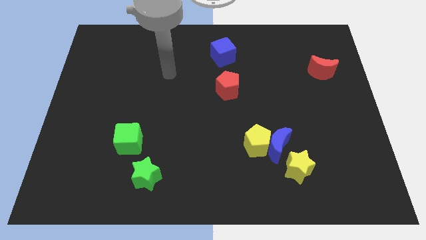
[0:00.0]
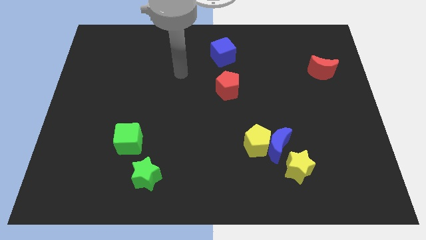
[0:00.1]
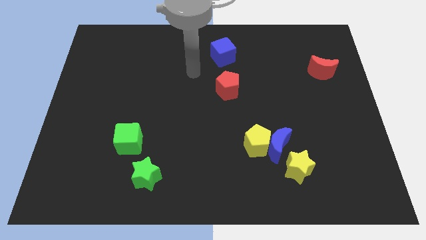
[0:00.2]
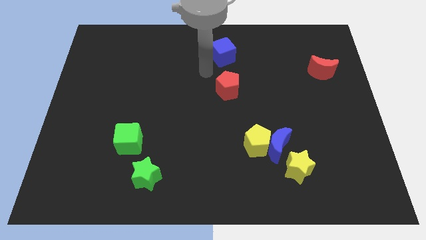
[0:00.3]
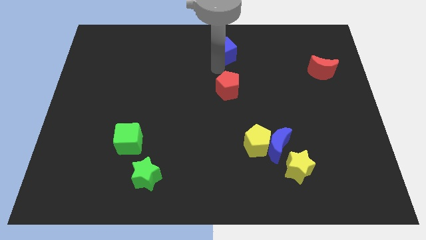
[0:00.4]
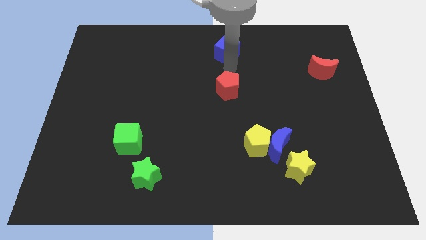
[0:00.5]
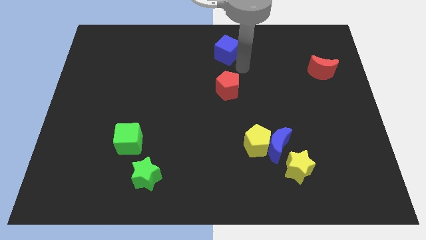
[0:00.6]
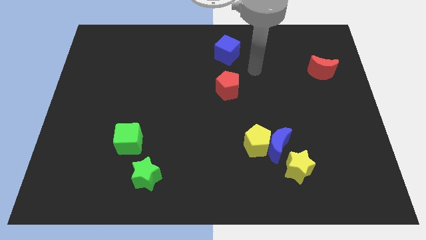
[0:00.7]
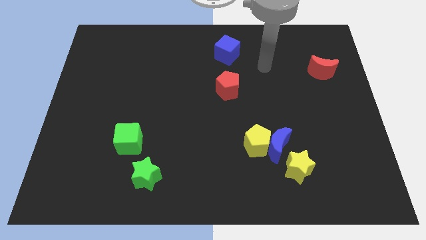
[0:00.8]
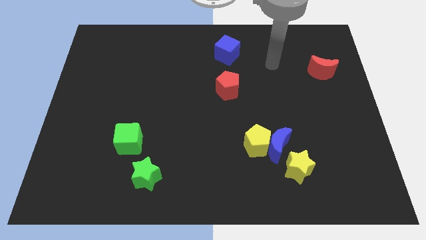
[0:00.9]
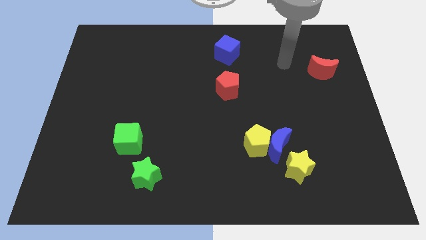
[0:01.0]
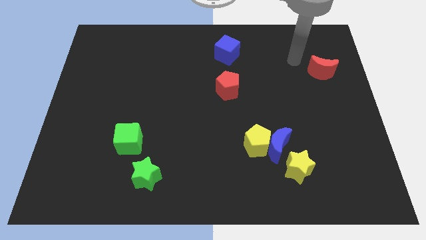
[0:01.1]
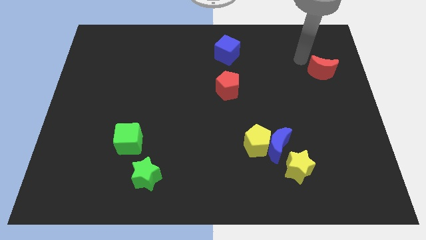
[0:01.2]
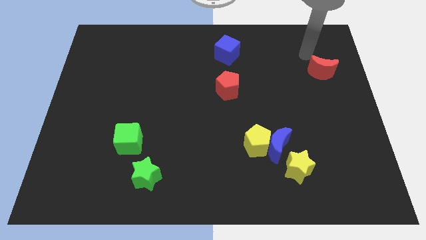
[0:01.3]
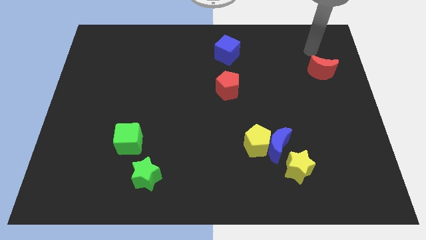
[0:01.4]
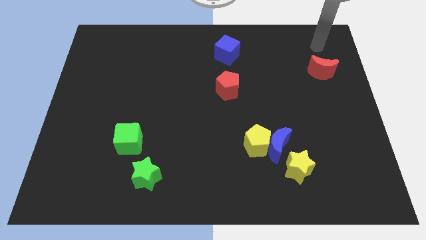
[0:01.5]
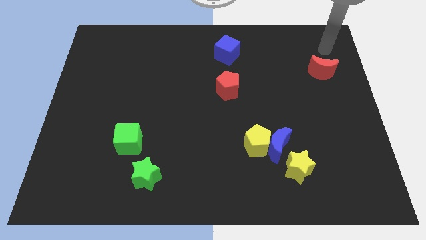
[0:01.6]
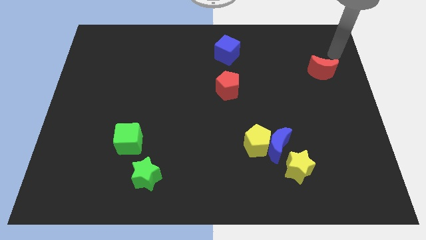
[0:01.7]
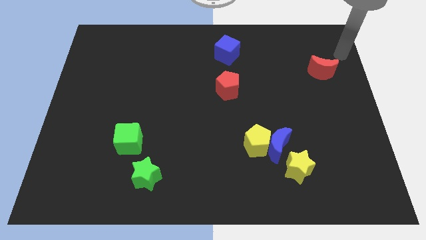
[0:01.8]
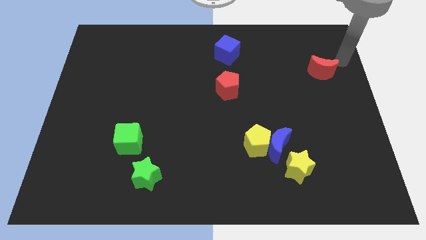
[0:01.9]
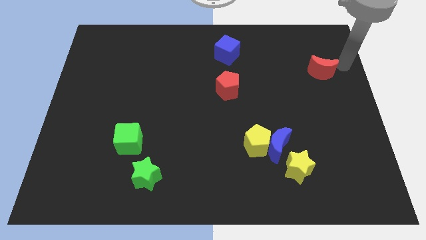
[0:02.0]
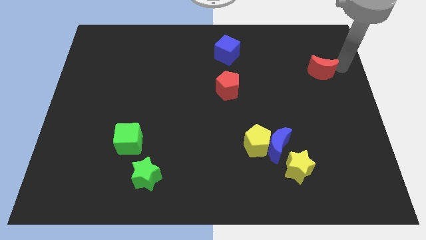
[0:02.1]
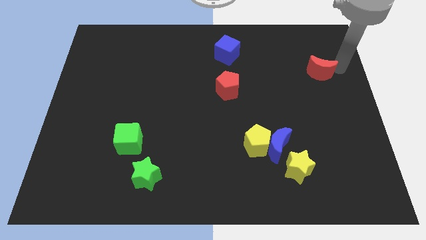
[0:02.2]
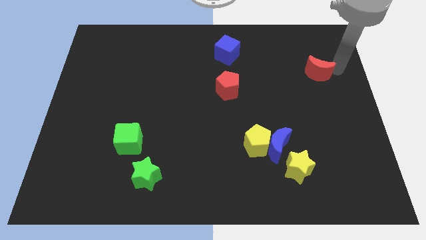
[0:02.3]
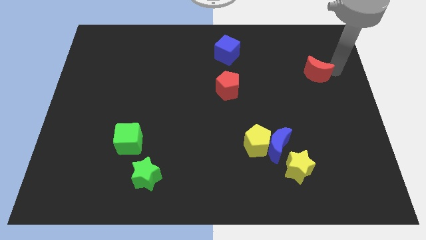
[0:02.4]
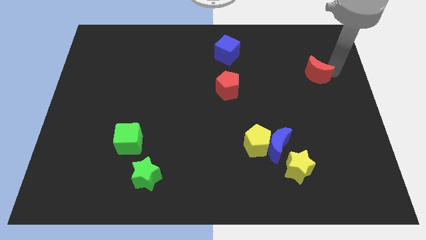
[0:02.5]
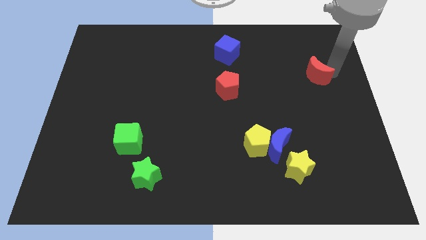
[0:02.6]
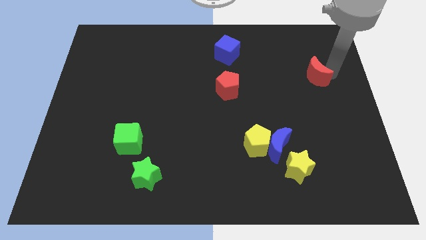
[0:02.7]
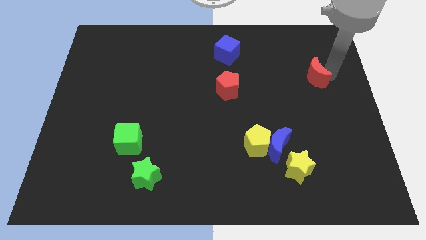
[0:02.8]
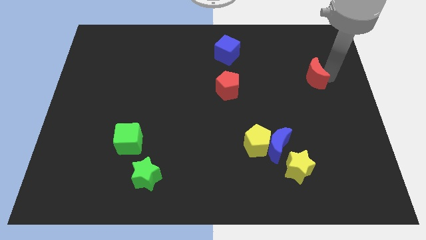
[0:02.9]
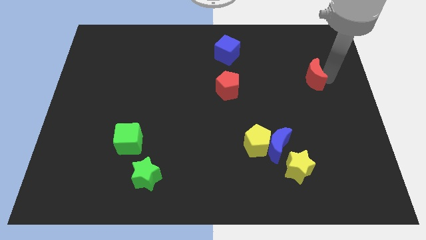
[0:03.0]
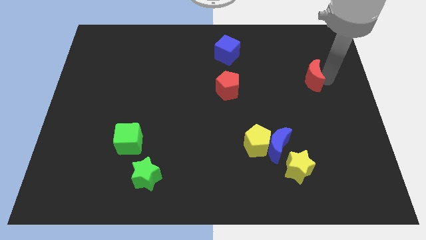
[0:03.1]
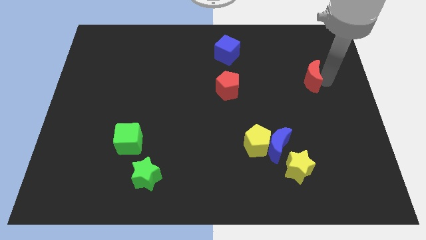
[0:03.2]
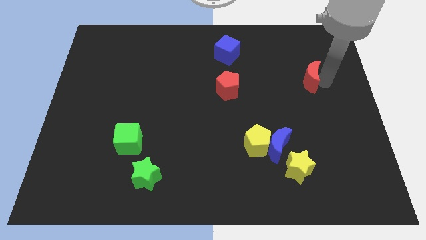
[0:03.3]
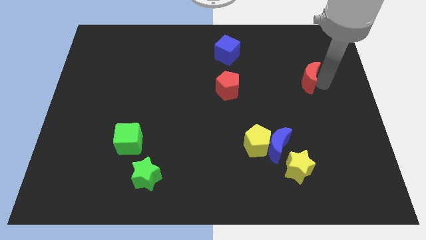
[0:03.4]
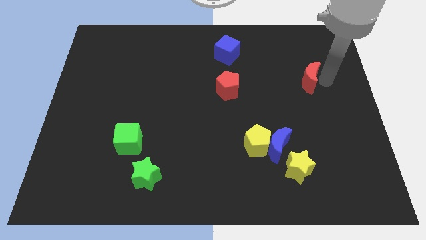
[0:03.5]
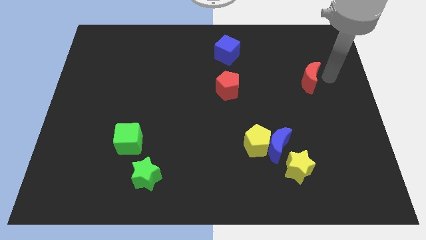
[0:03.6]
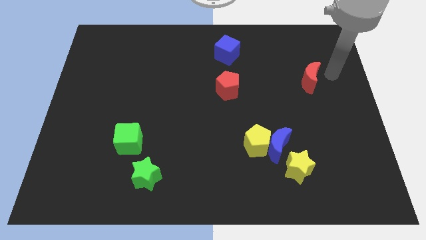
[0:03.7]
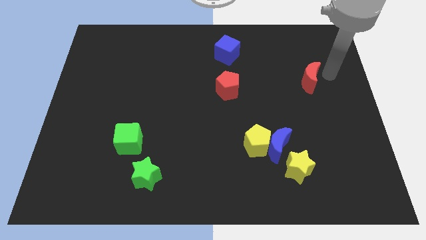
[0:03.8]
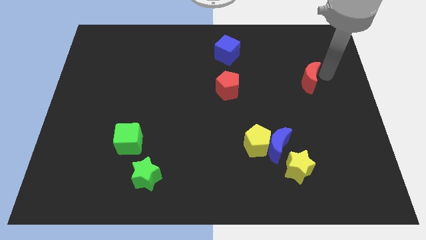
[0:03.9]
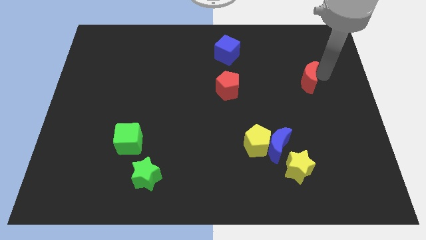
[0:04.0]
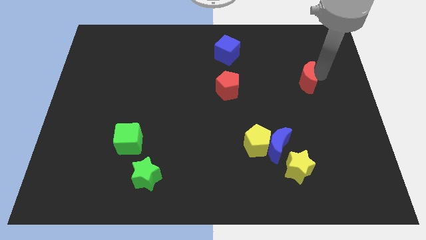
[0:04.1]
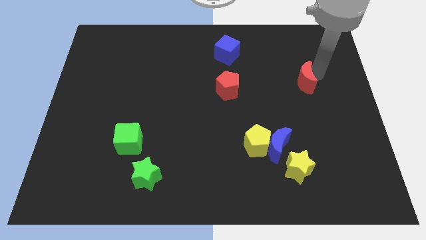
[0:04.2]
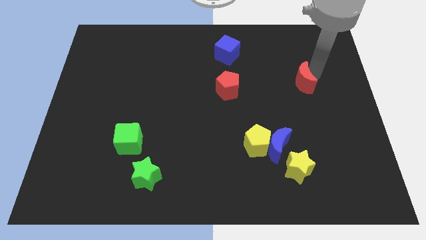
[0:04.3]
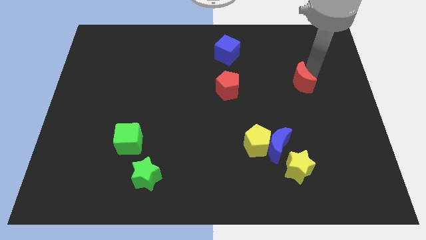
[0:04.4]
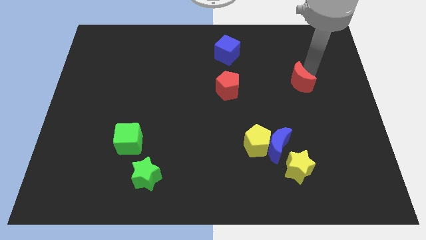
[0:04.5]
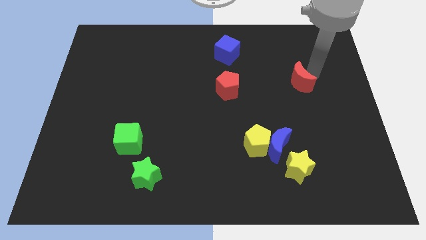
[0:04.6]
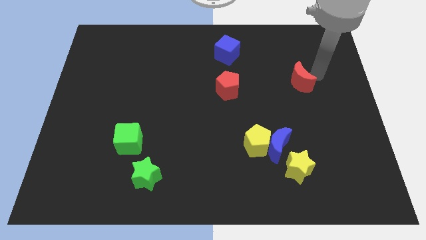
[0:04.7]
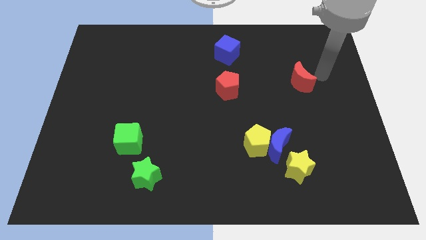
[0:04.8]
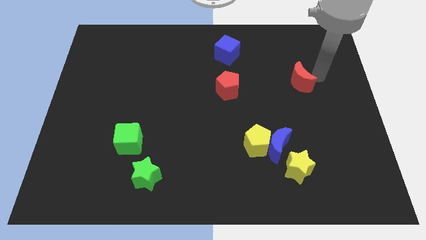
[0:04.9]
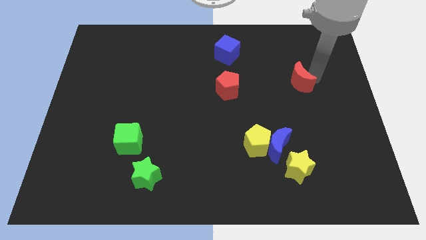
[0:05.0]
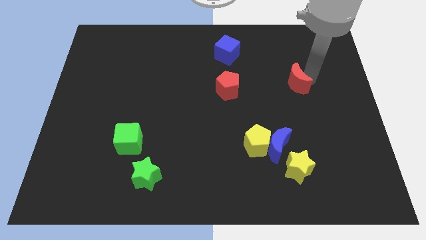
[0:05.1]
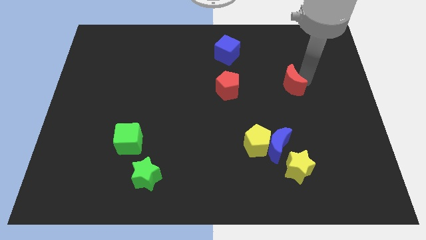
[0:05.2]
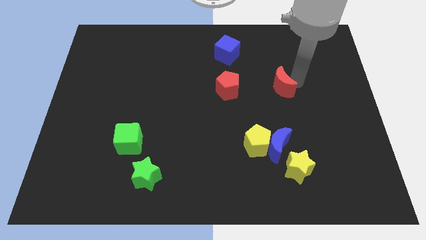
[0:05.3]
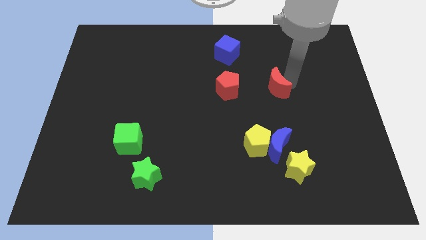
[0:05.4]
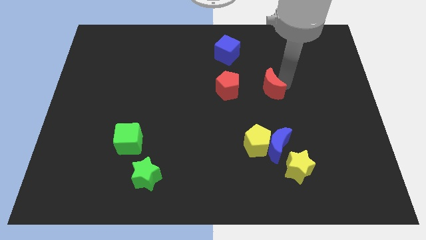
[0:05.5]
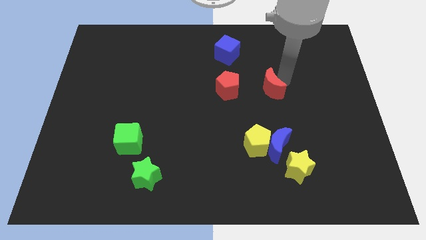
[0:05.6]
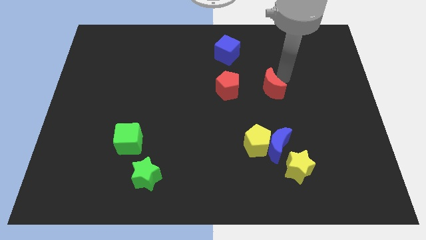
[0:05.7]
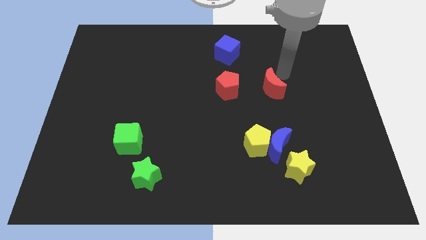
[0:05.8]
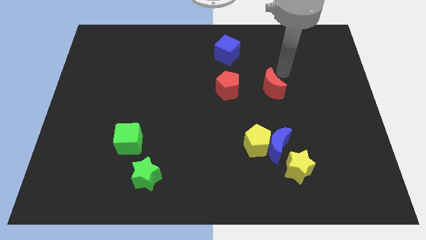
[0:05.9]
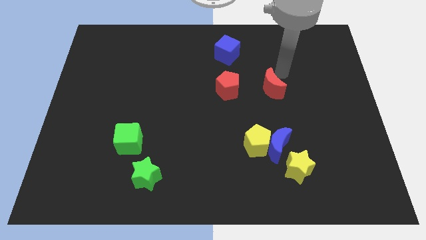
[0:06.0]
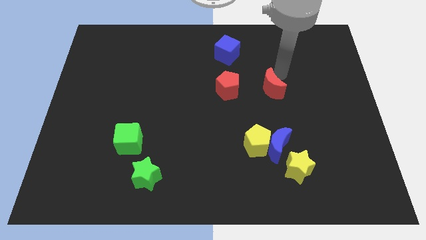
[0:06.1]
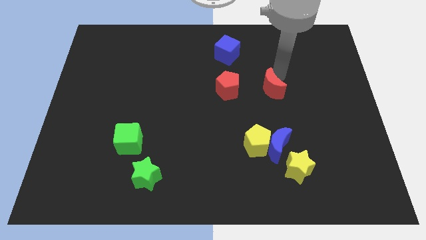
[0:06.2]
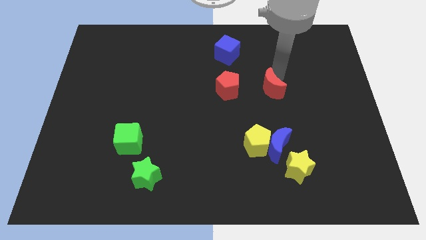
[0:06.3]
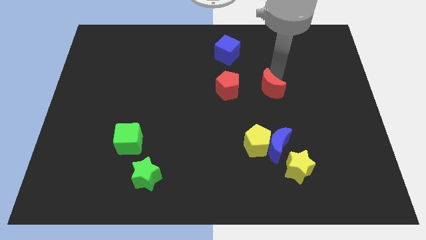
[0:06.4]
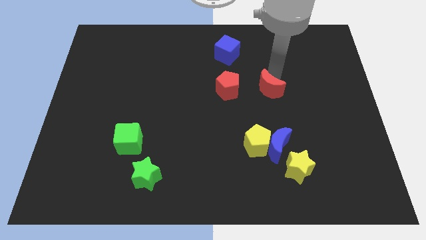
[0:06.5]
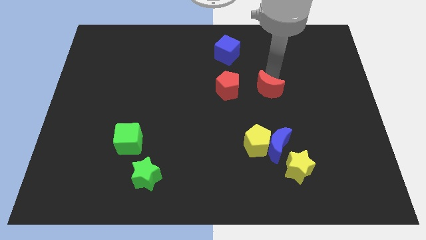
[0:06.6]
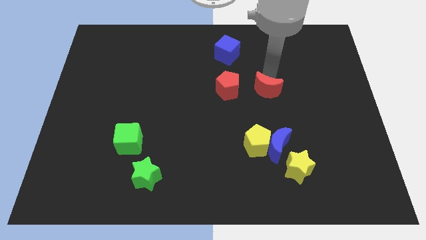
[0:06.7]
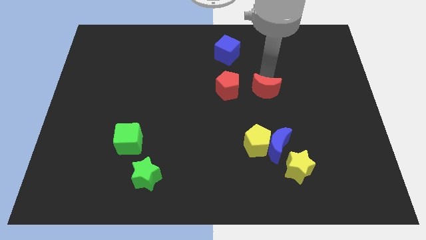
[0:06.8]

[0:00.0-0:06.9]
push the red moon above the yellow pentagon
